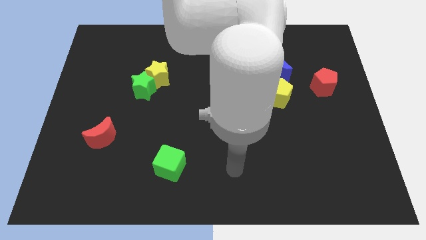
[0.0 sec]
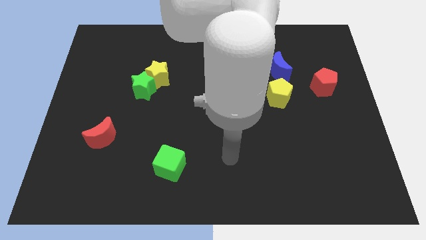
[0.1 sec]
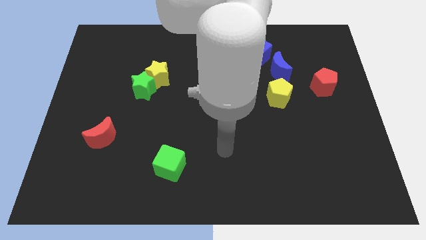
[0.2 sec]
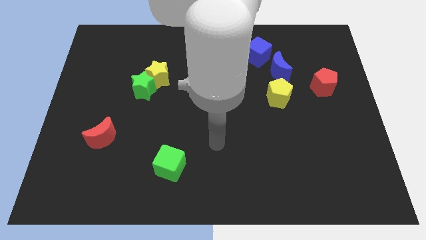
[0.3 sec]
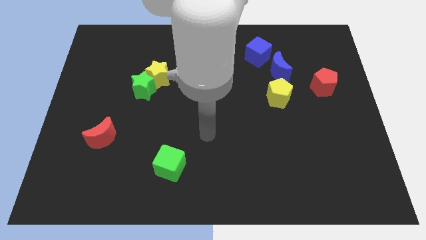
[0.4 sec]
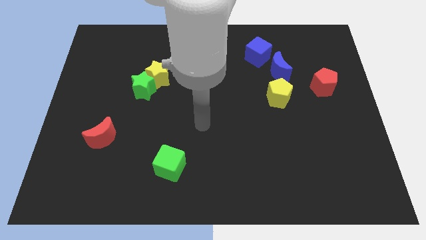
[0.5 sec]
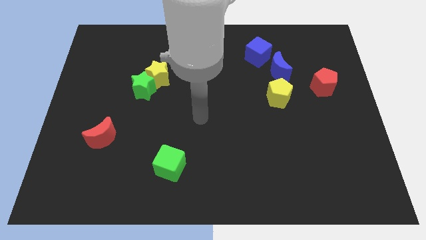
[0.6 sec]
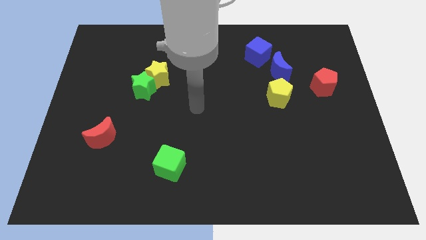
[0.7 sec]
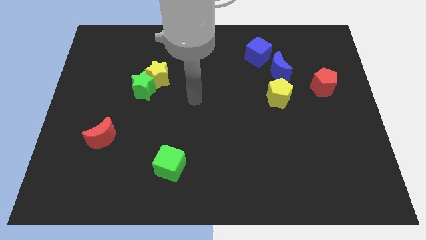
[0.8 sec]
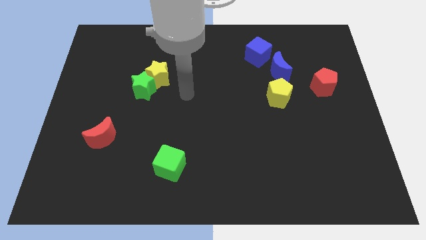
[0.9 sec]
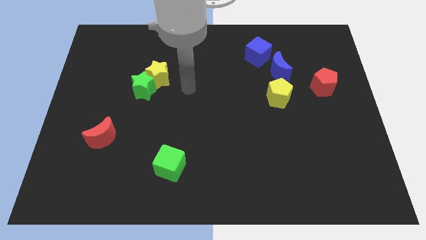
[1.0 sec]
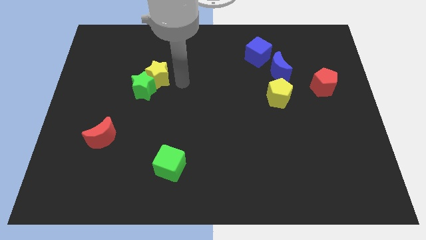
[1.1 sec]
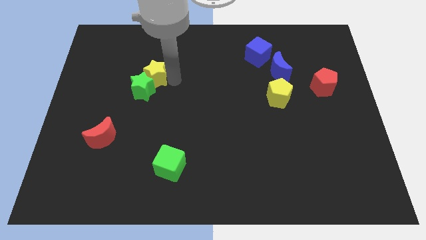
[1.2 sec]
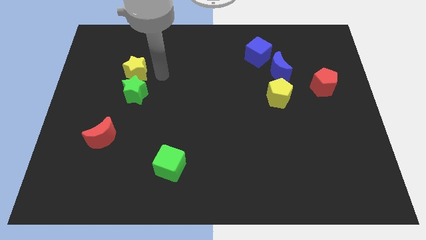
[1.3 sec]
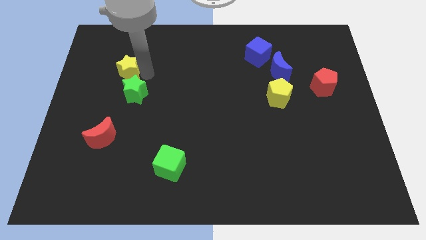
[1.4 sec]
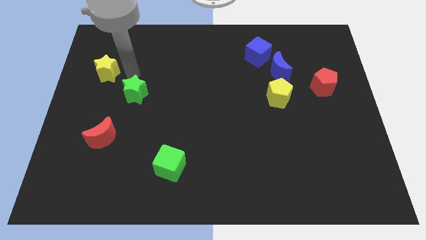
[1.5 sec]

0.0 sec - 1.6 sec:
pull the green star apart from the yellow star

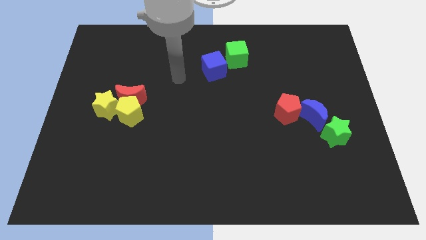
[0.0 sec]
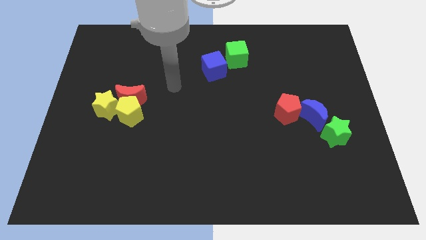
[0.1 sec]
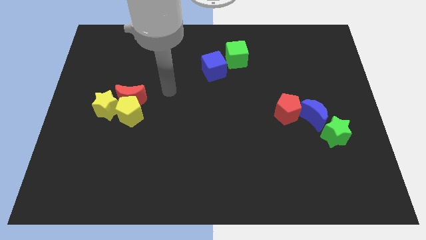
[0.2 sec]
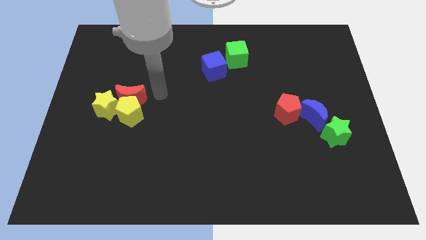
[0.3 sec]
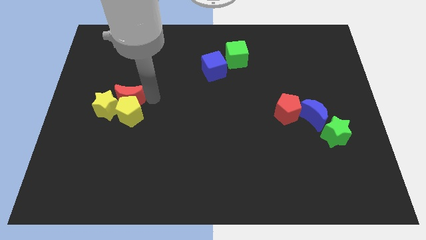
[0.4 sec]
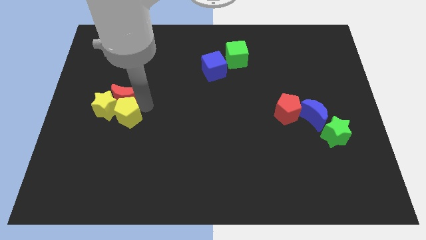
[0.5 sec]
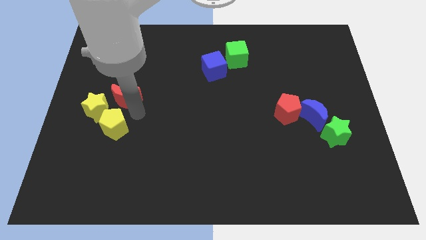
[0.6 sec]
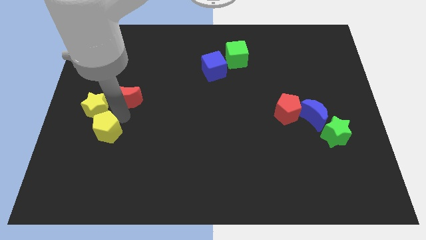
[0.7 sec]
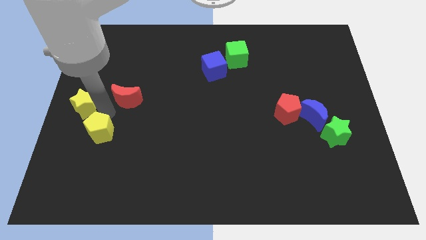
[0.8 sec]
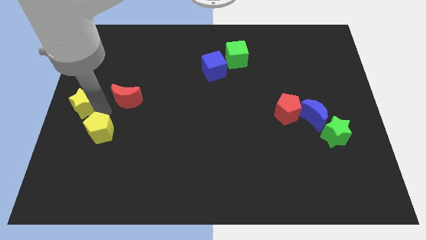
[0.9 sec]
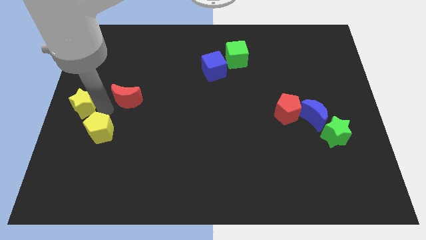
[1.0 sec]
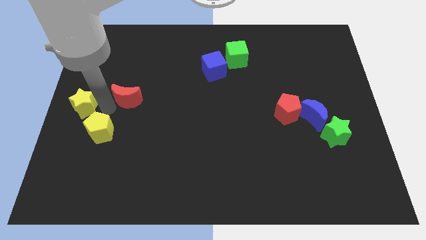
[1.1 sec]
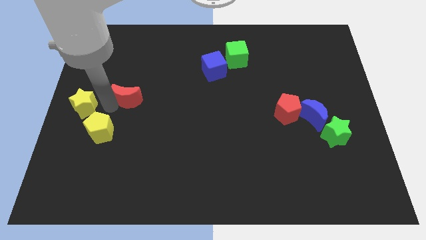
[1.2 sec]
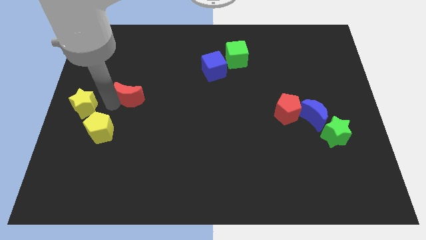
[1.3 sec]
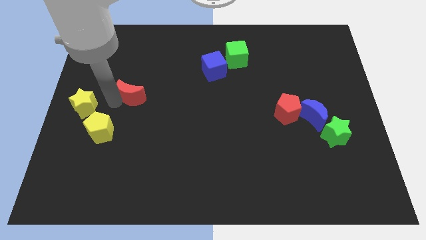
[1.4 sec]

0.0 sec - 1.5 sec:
separate the red moon from the yellow pentagon and yellow star

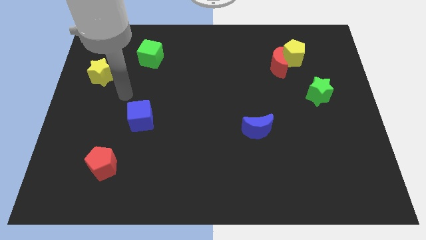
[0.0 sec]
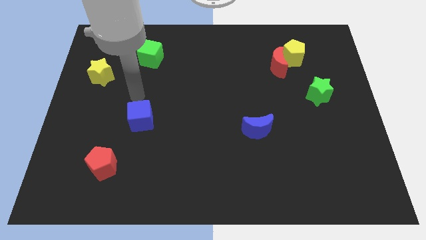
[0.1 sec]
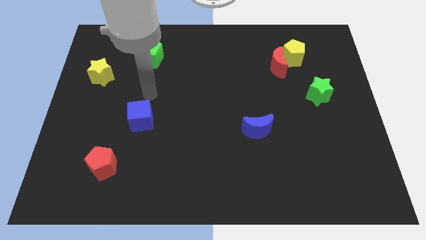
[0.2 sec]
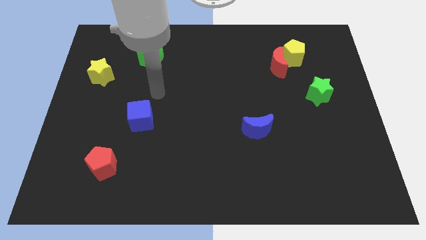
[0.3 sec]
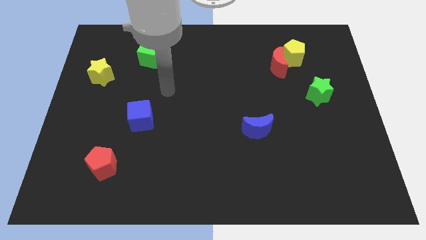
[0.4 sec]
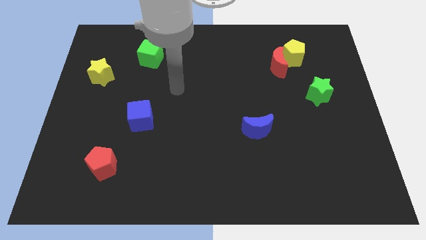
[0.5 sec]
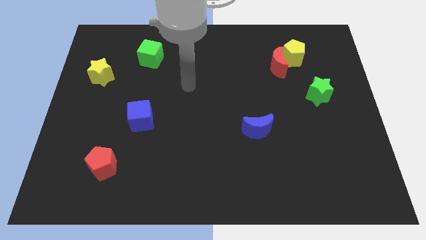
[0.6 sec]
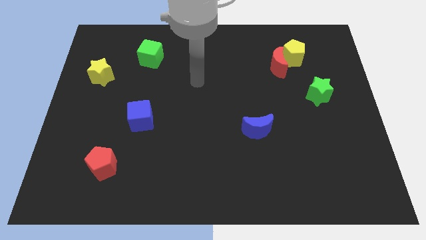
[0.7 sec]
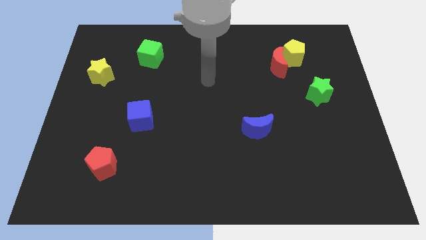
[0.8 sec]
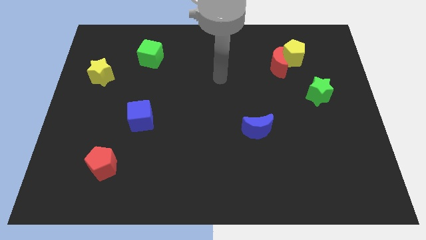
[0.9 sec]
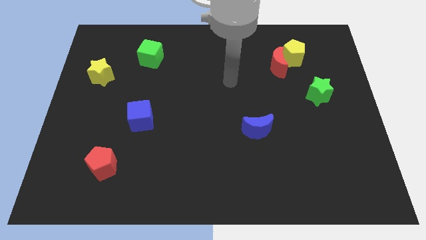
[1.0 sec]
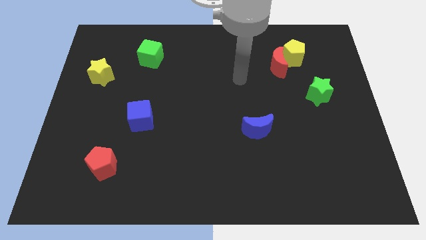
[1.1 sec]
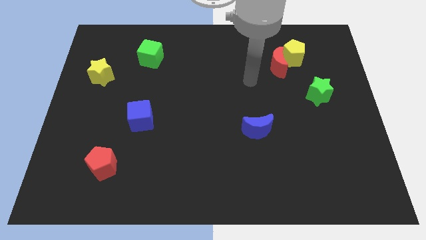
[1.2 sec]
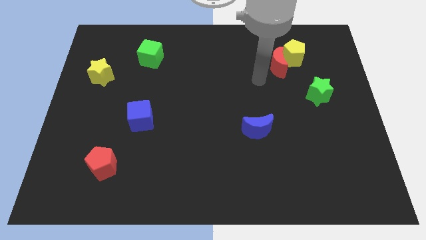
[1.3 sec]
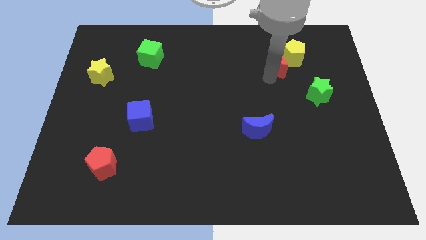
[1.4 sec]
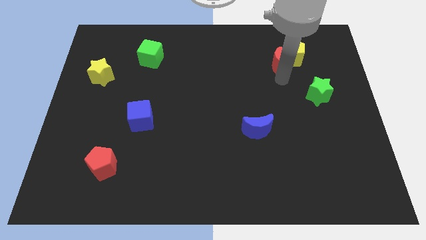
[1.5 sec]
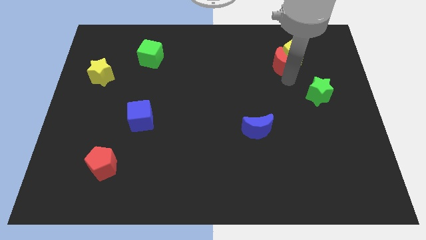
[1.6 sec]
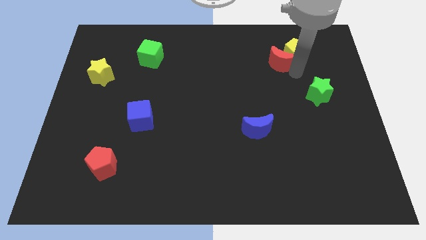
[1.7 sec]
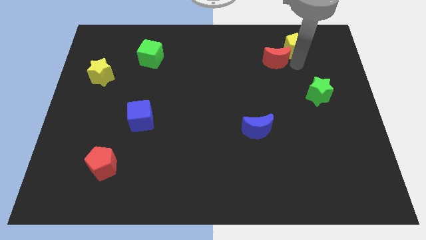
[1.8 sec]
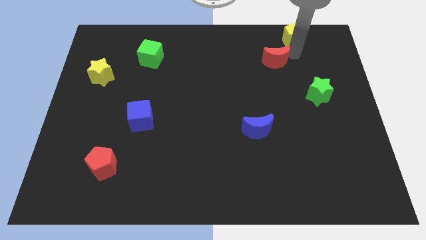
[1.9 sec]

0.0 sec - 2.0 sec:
pull the red moon apart from the yellow pentagon

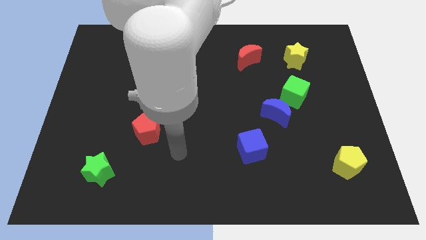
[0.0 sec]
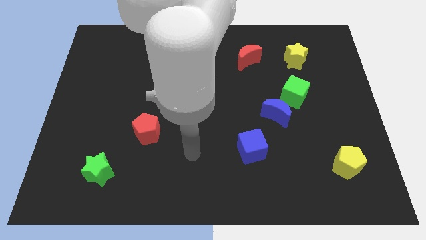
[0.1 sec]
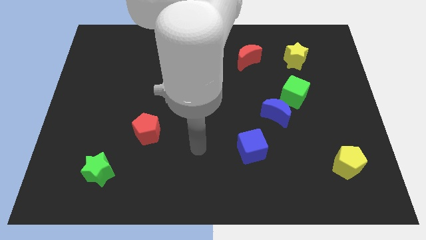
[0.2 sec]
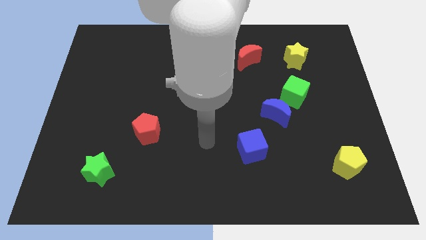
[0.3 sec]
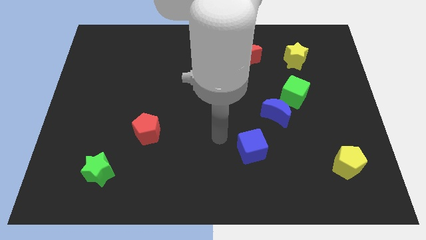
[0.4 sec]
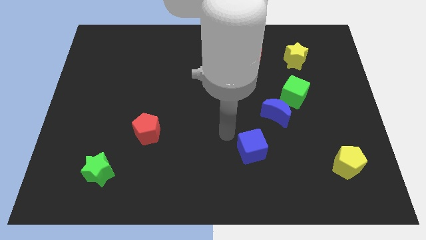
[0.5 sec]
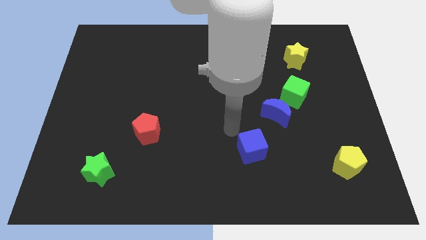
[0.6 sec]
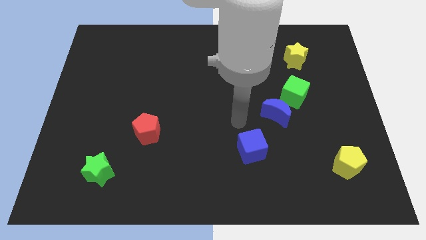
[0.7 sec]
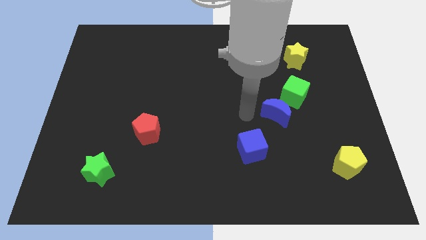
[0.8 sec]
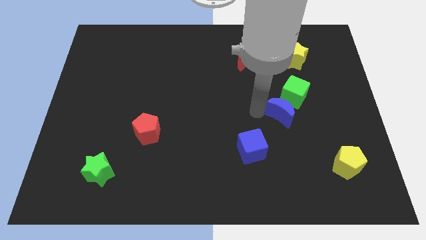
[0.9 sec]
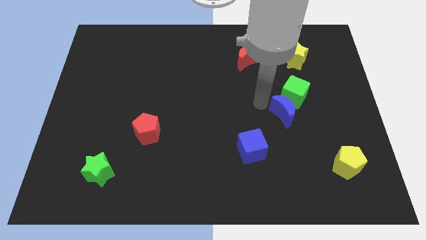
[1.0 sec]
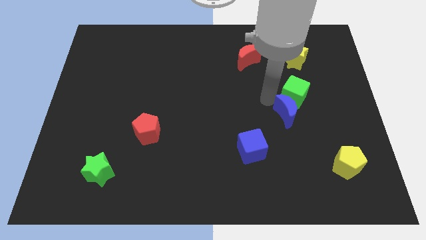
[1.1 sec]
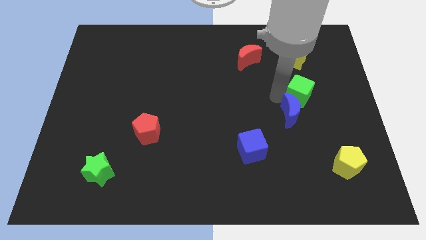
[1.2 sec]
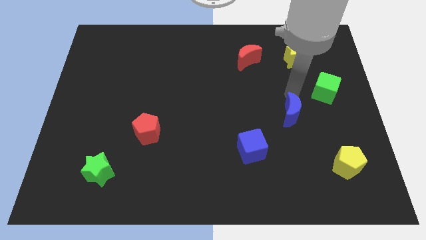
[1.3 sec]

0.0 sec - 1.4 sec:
separate the blue moon from the green cube

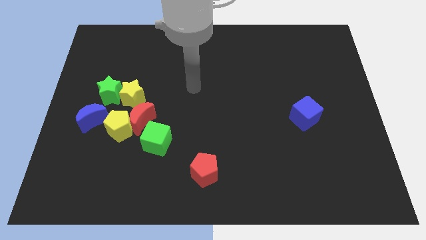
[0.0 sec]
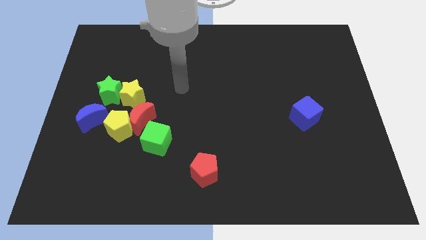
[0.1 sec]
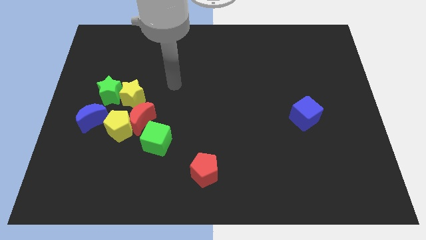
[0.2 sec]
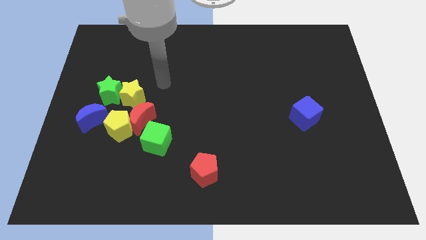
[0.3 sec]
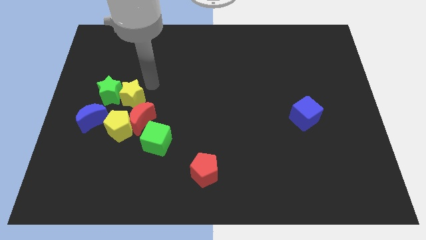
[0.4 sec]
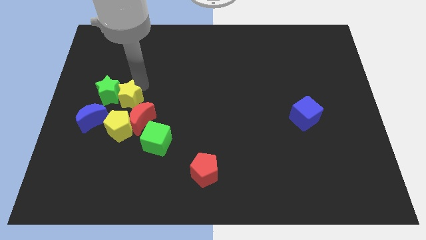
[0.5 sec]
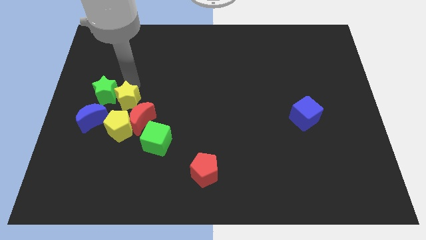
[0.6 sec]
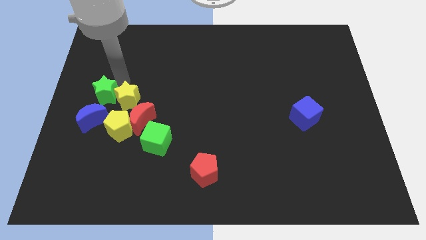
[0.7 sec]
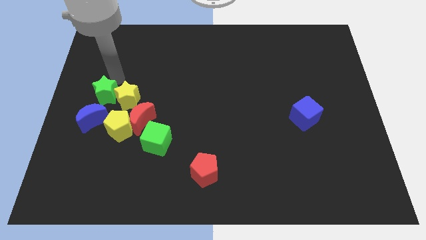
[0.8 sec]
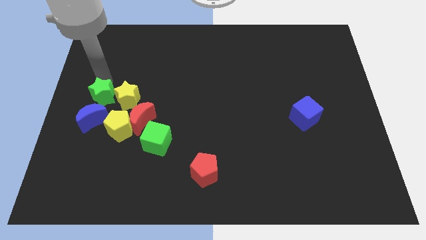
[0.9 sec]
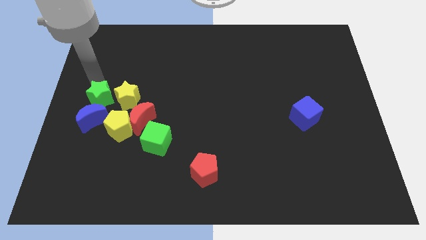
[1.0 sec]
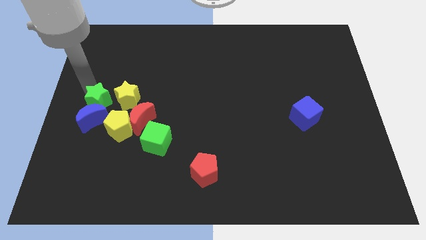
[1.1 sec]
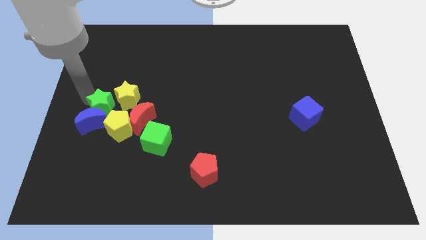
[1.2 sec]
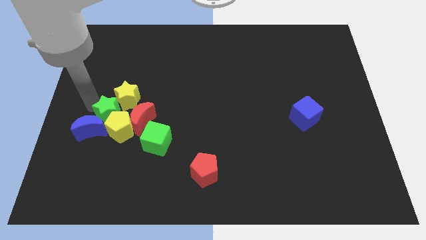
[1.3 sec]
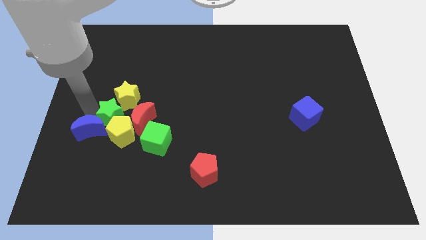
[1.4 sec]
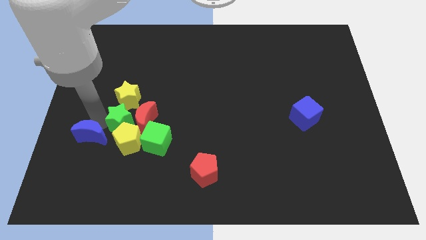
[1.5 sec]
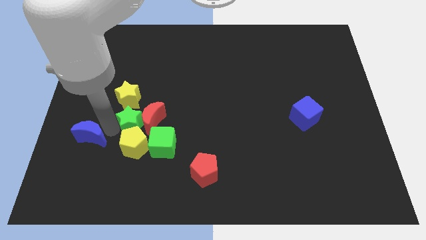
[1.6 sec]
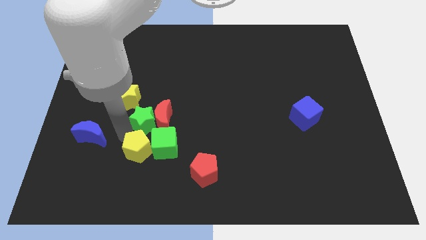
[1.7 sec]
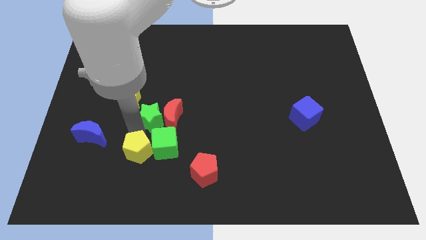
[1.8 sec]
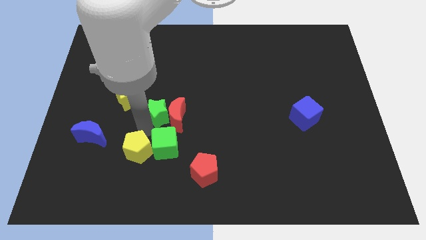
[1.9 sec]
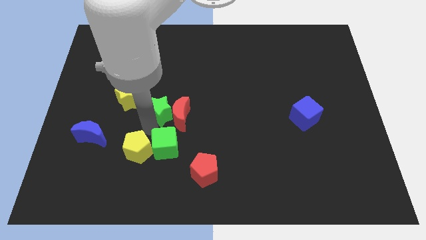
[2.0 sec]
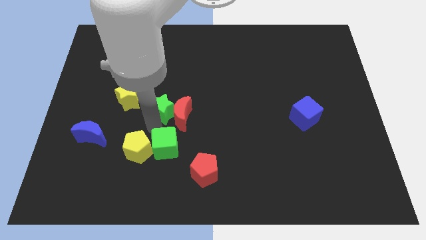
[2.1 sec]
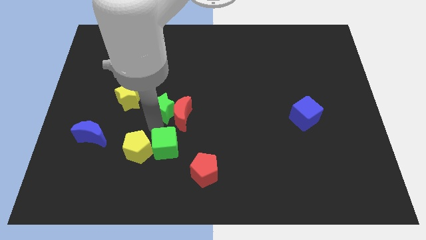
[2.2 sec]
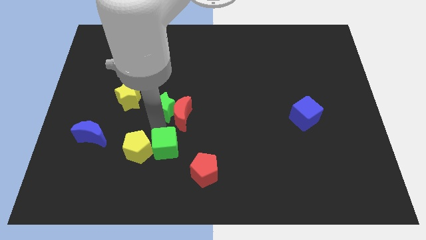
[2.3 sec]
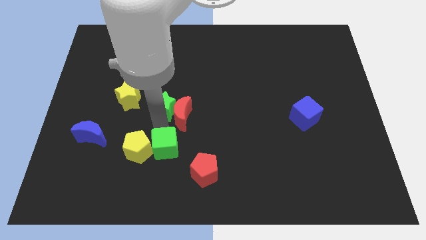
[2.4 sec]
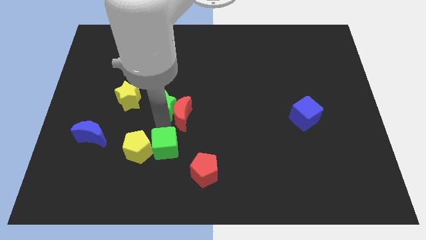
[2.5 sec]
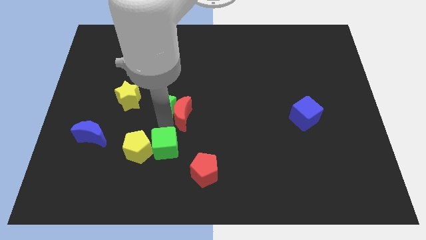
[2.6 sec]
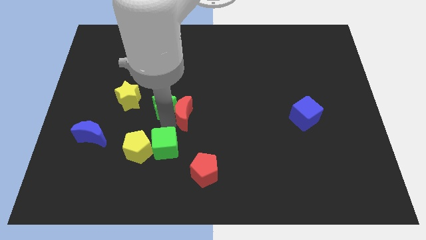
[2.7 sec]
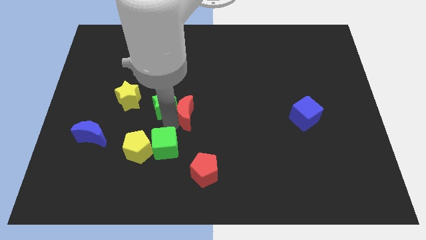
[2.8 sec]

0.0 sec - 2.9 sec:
separate the red moon from the yellow pentagon, green cube, and yellow star
